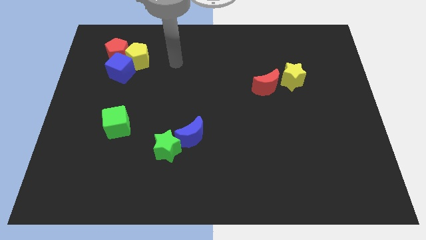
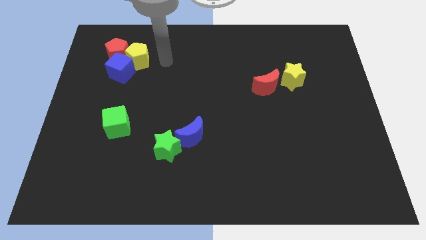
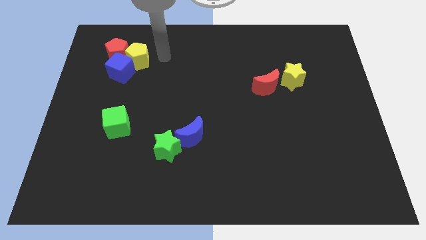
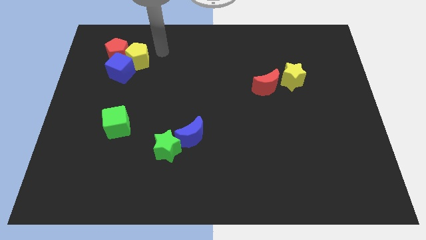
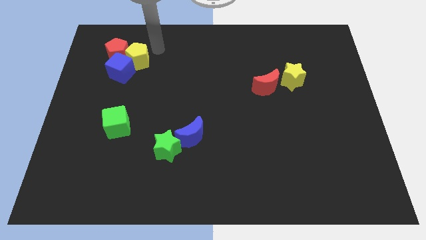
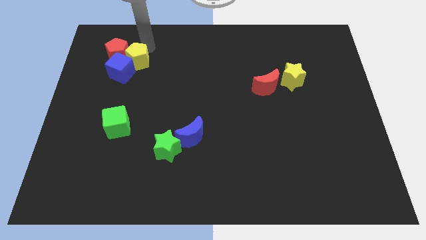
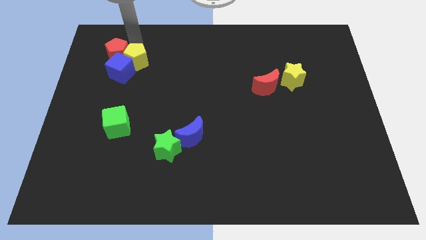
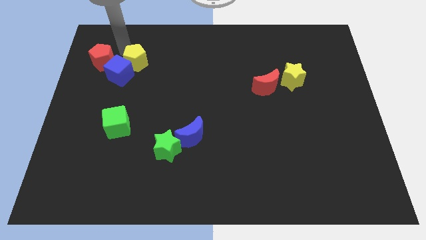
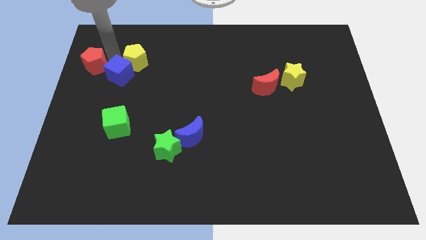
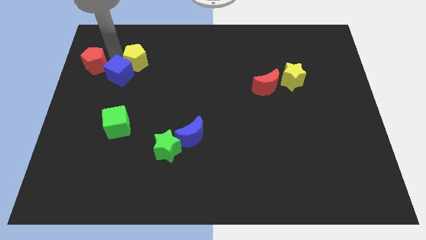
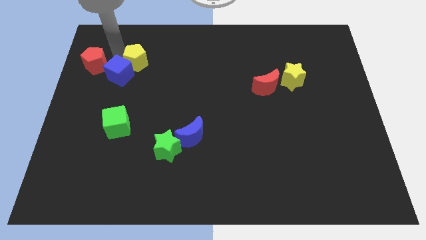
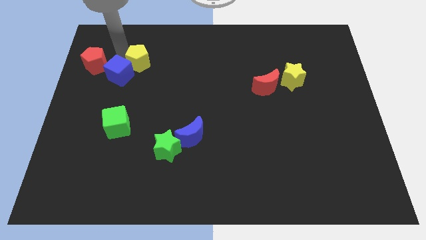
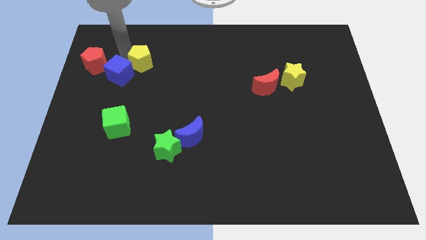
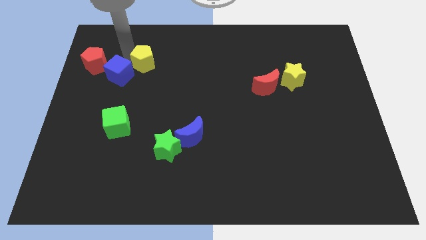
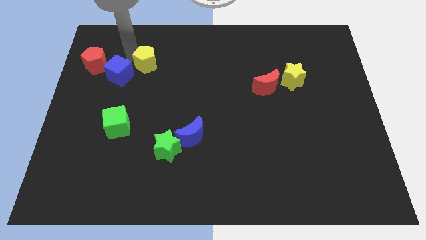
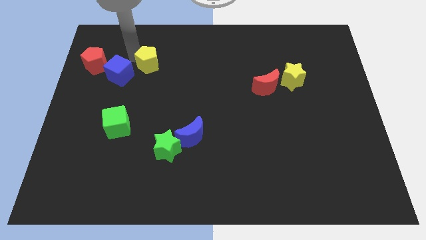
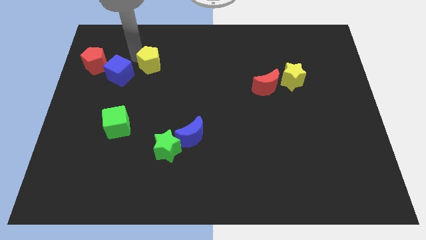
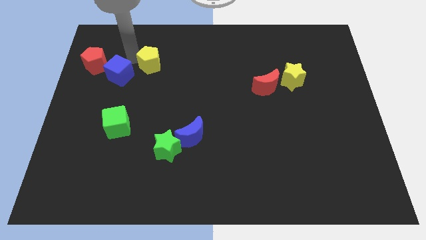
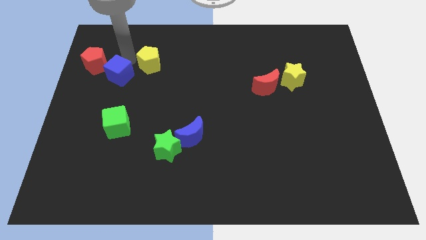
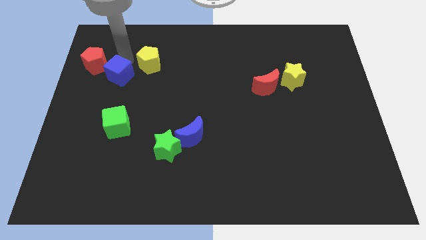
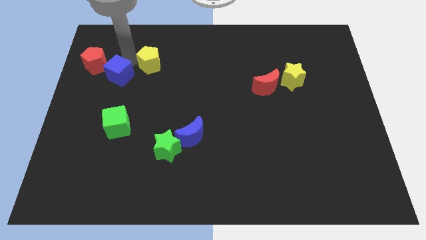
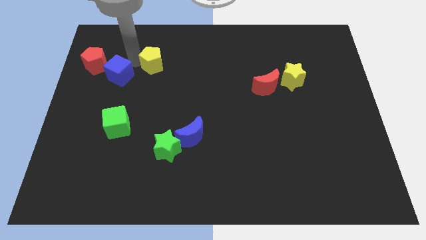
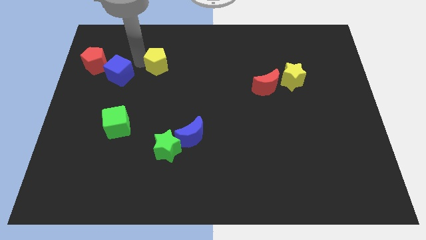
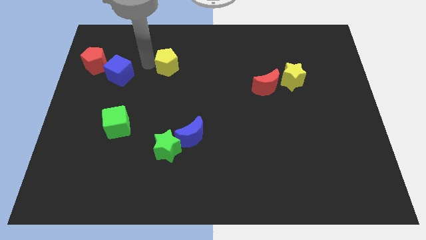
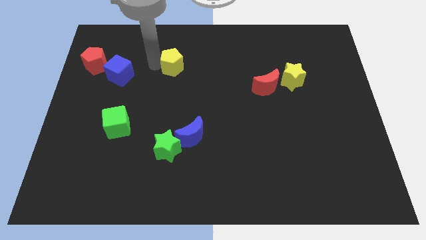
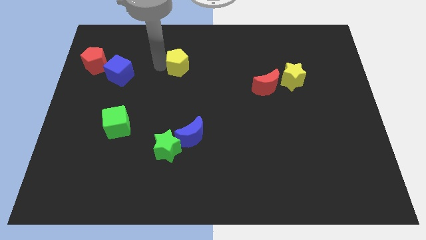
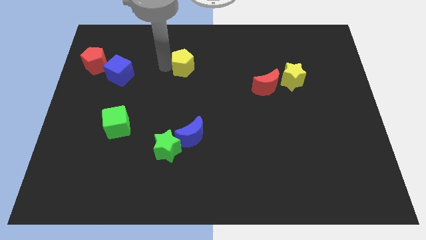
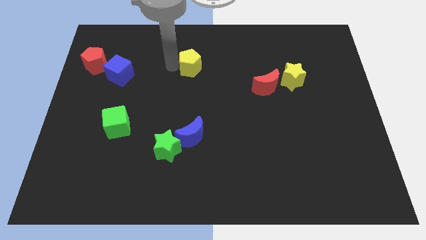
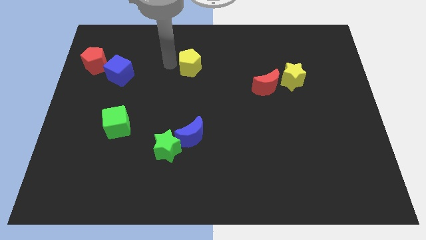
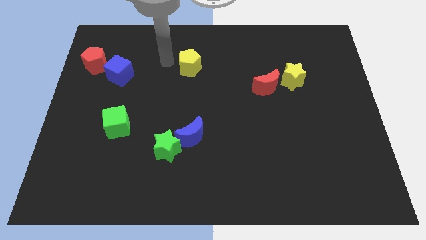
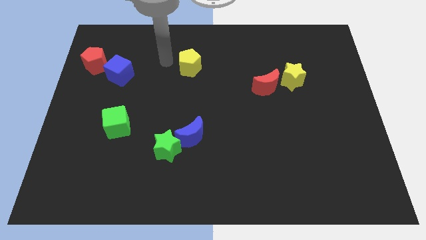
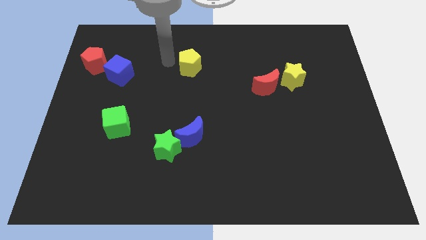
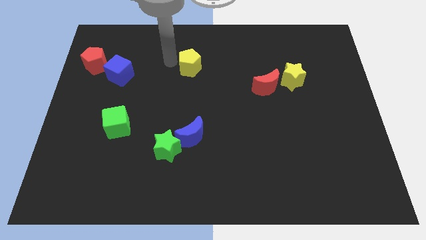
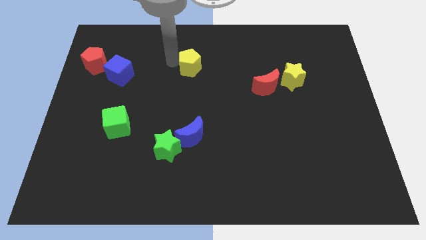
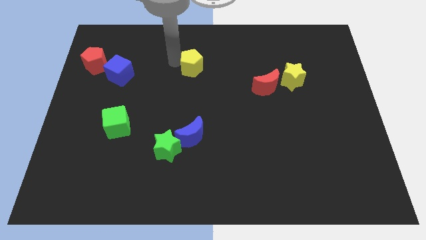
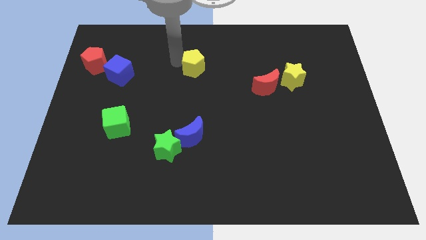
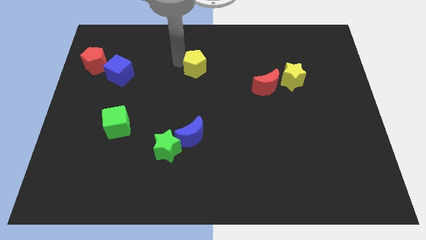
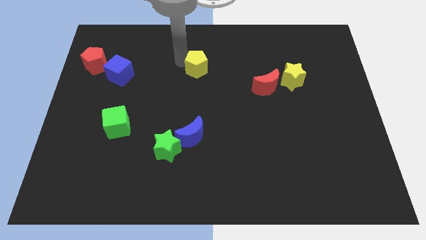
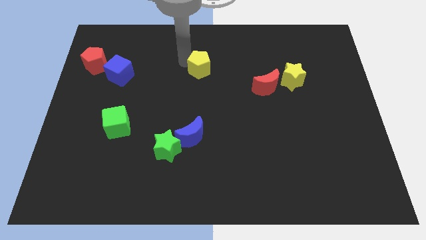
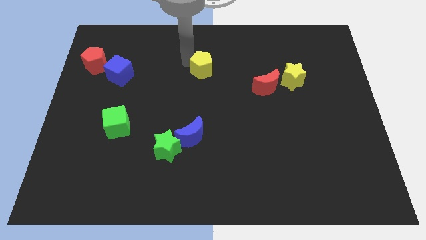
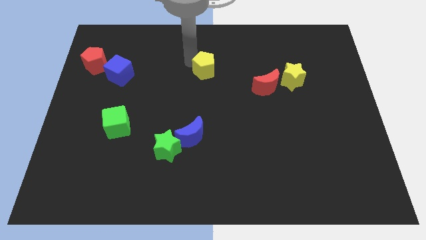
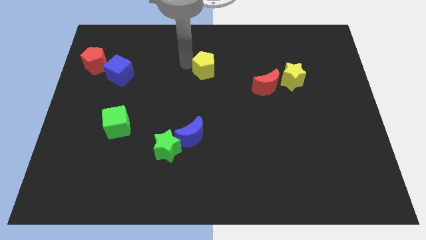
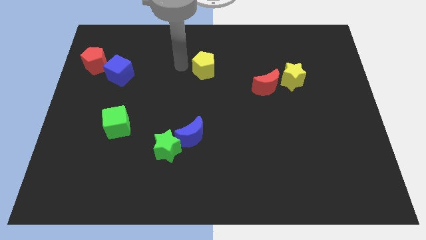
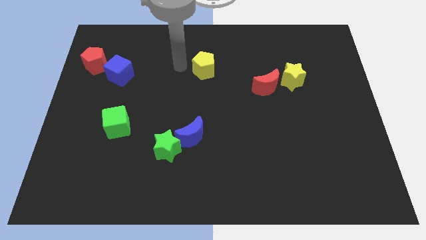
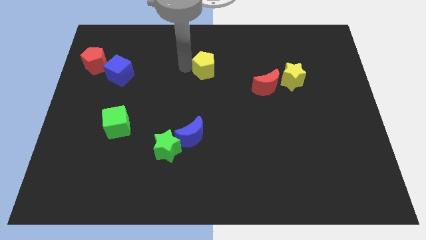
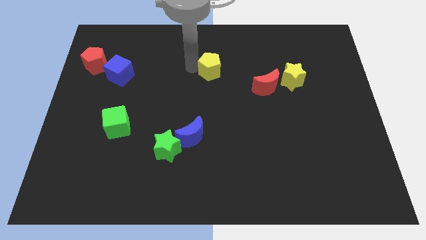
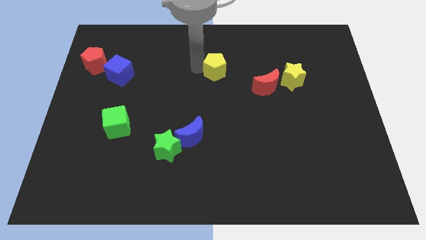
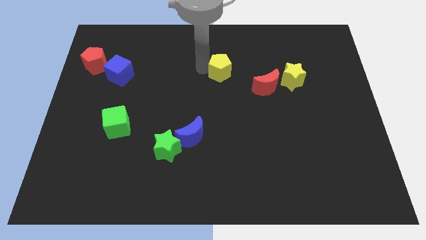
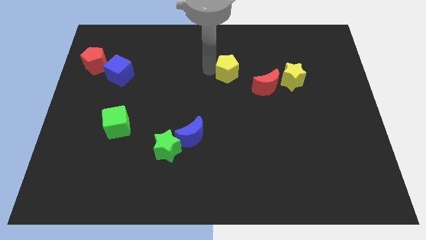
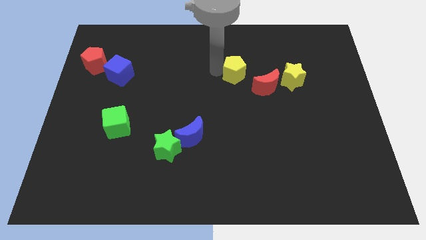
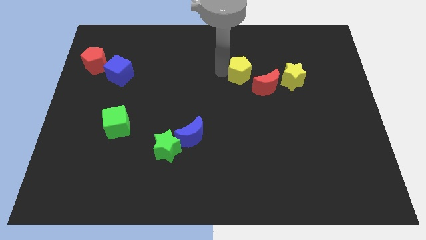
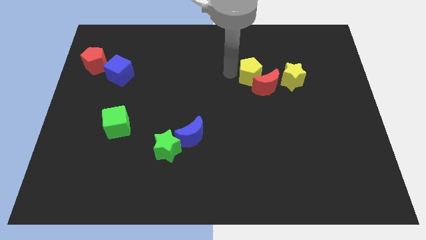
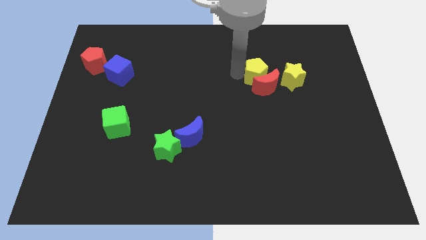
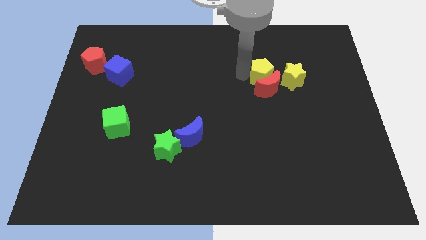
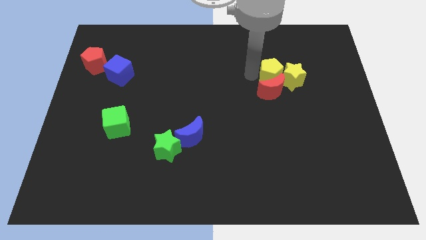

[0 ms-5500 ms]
push the yellow pentagon to the yellow star

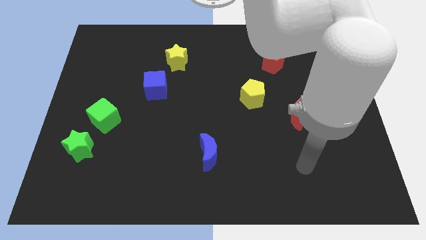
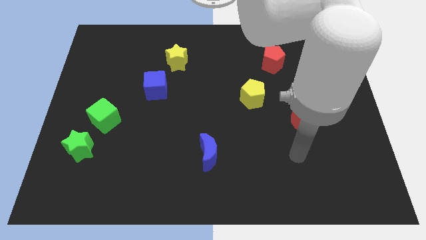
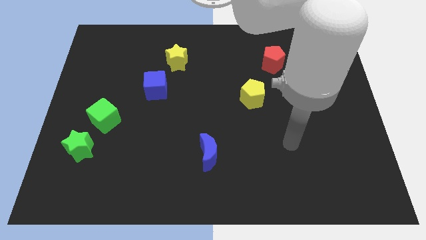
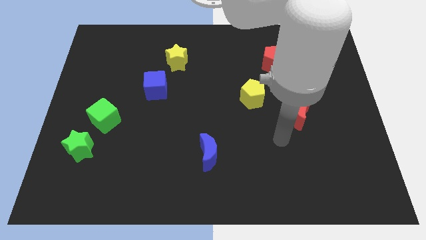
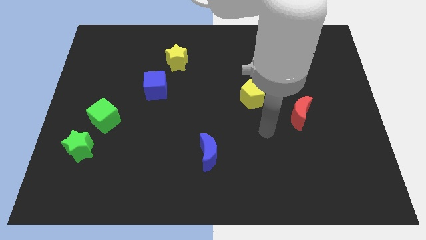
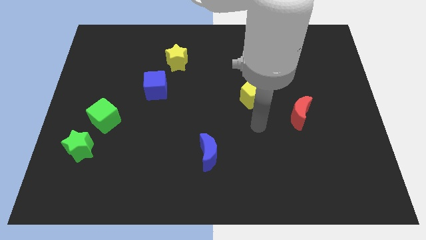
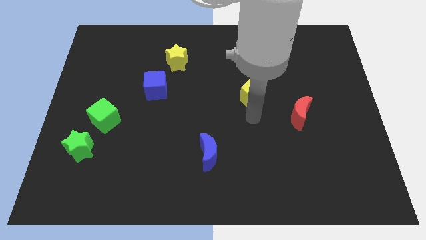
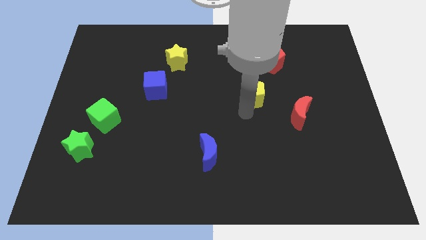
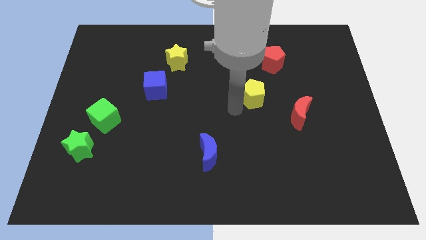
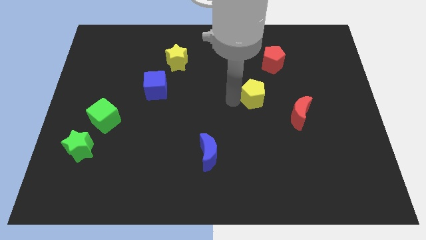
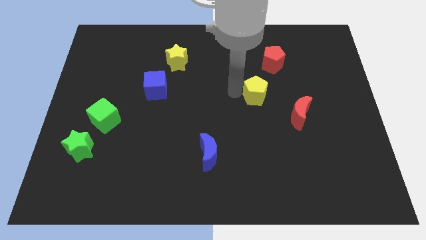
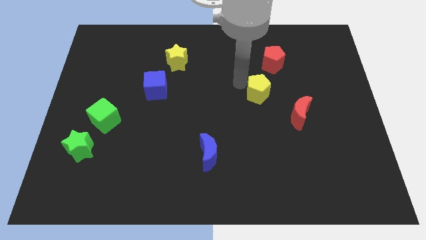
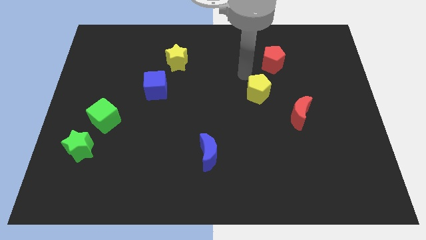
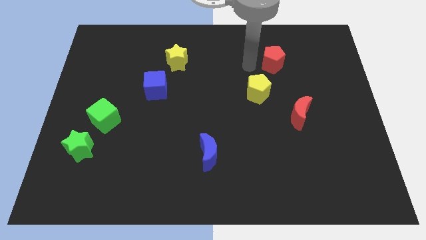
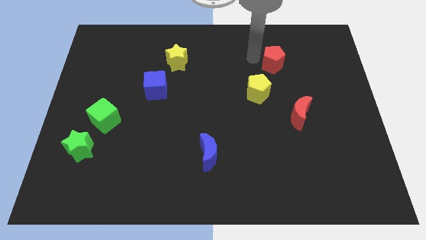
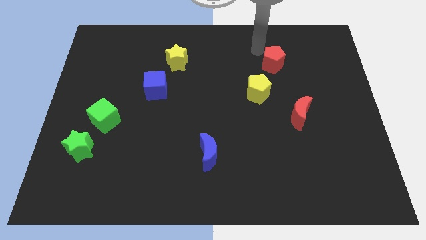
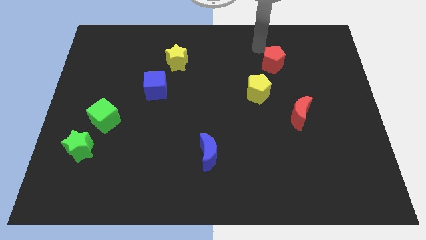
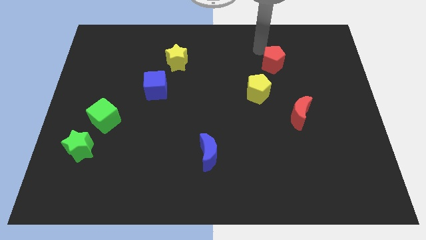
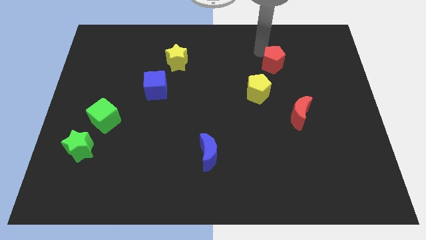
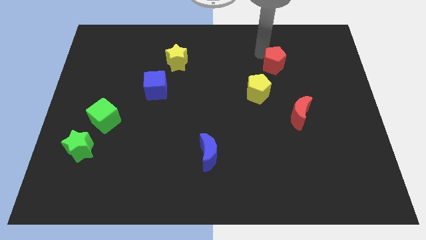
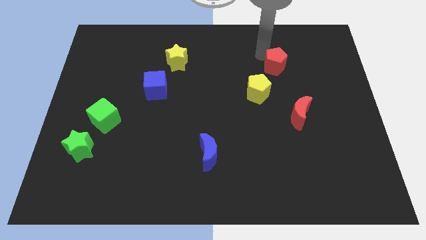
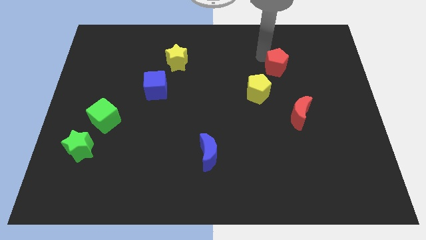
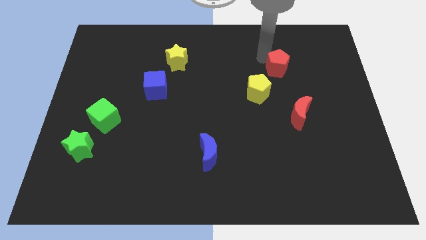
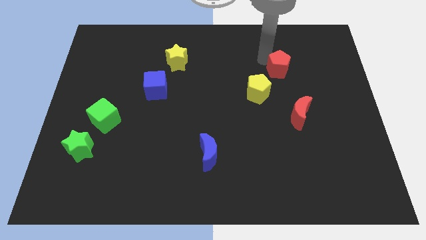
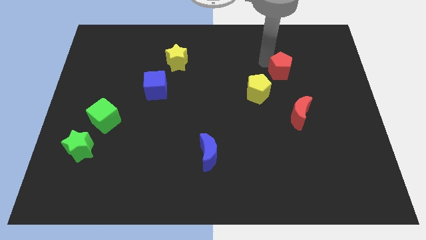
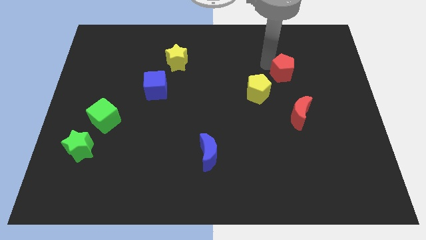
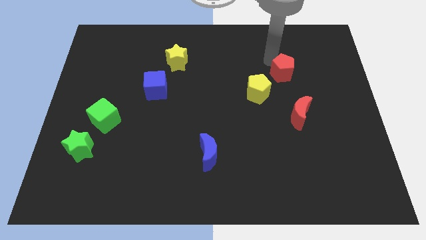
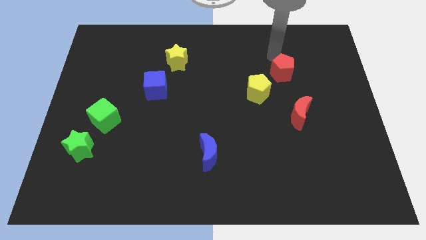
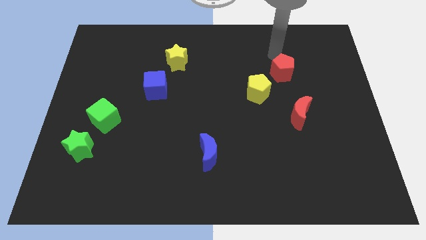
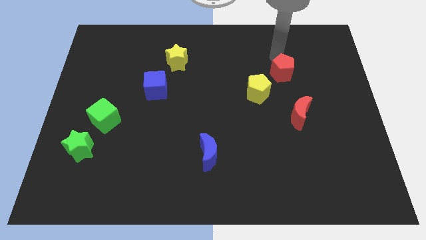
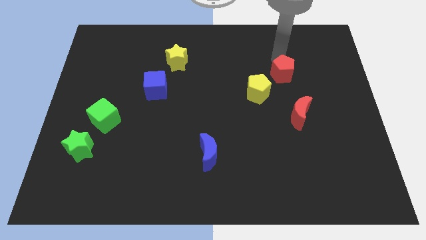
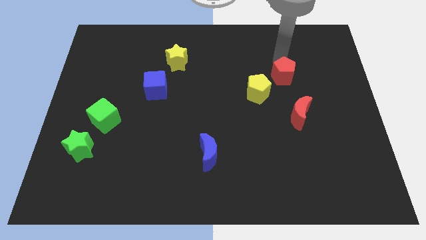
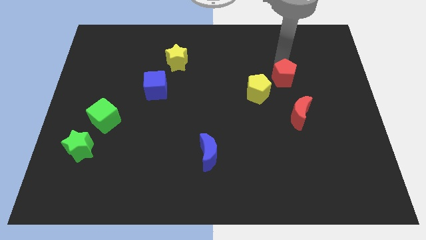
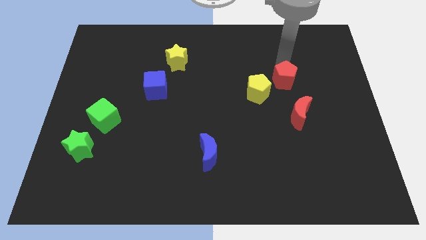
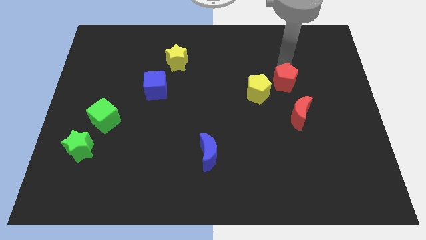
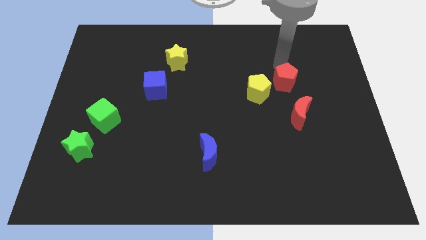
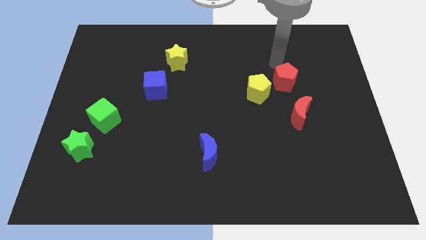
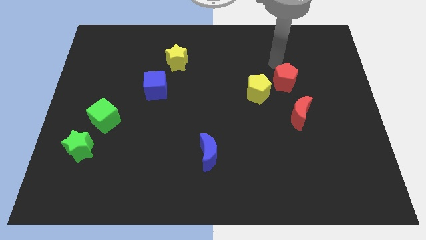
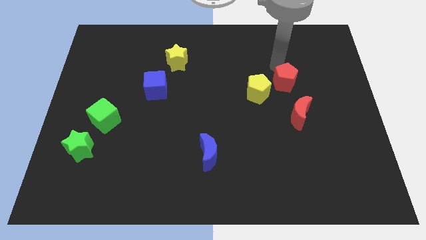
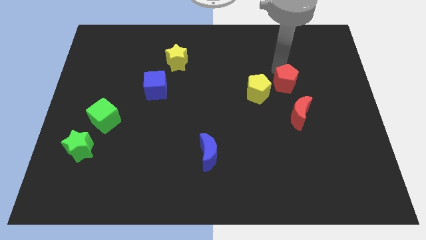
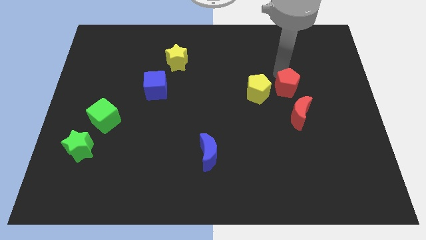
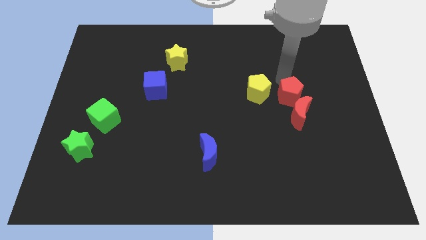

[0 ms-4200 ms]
push the red pentagon towards the red moon
